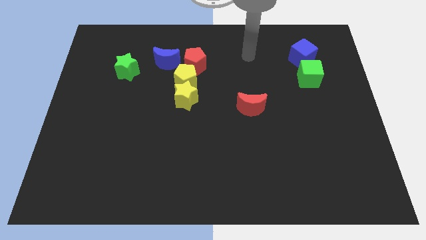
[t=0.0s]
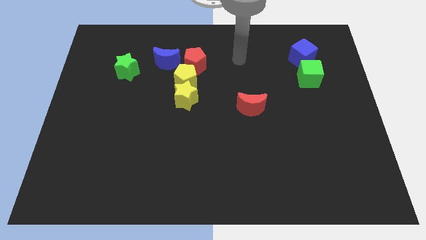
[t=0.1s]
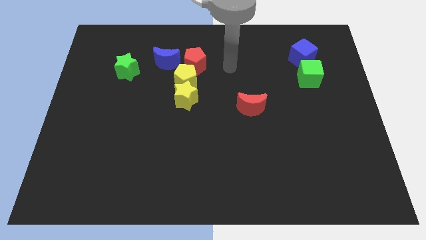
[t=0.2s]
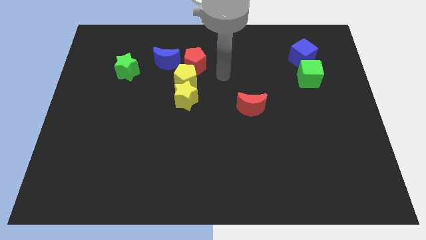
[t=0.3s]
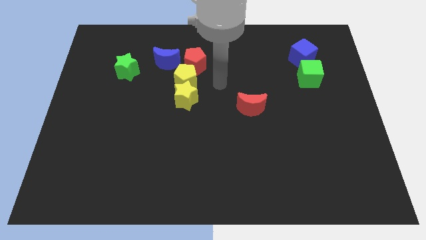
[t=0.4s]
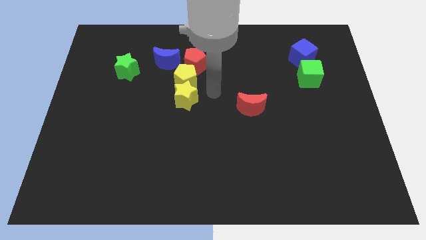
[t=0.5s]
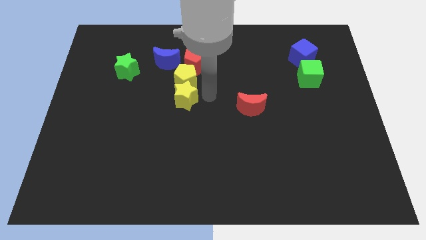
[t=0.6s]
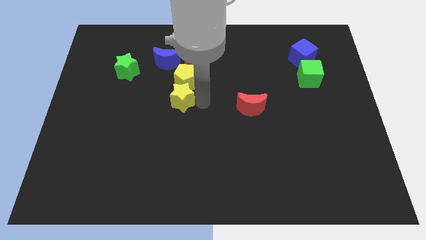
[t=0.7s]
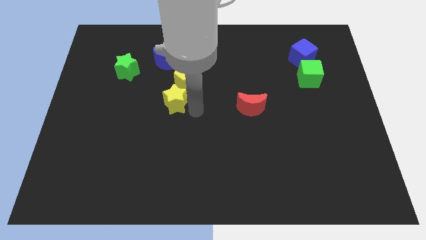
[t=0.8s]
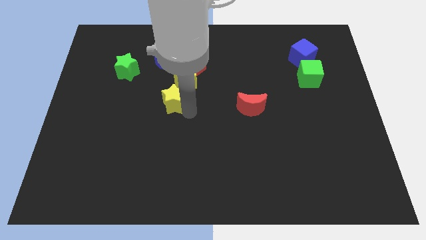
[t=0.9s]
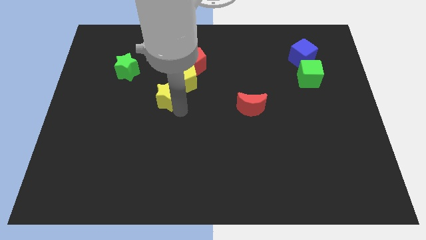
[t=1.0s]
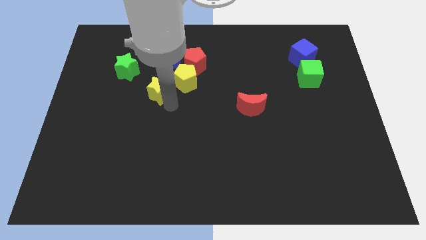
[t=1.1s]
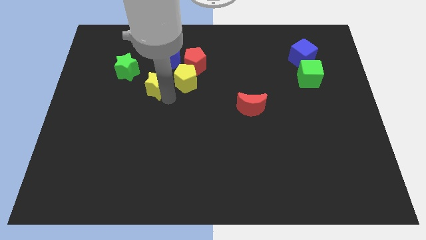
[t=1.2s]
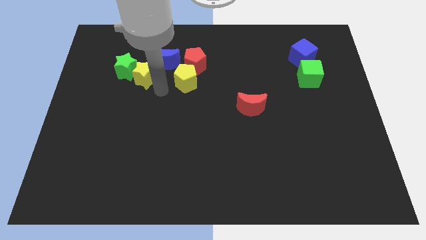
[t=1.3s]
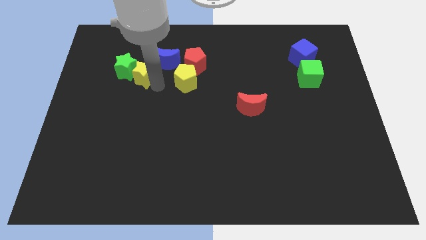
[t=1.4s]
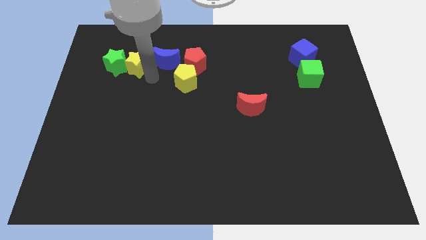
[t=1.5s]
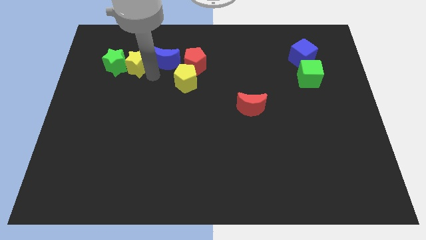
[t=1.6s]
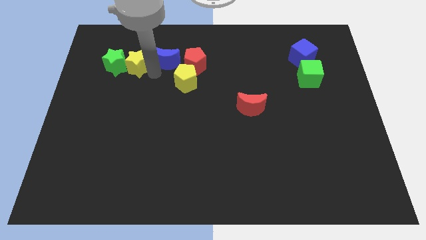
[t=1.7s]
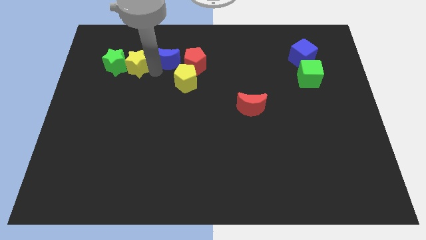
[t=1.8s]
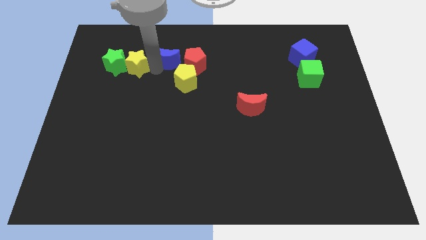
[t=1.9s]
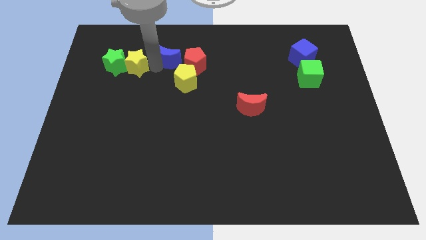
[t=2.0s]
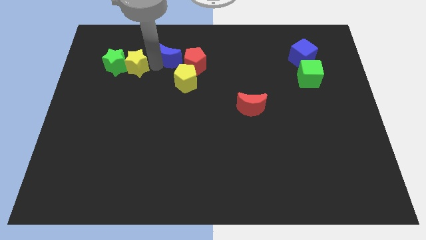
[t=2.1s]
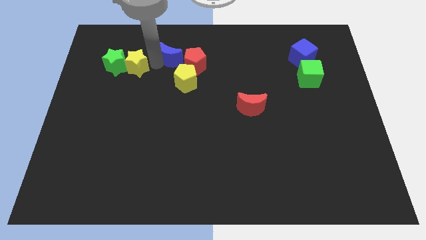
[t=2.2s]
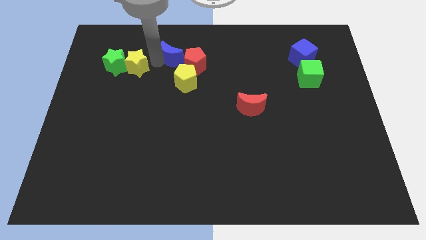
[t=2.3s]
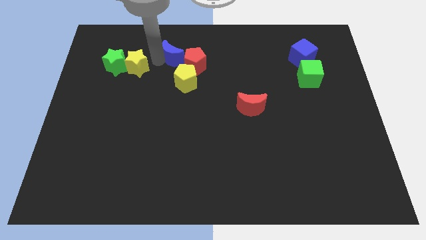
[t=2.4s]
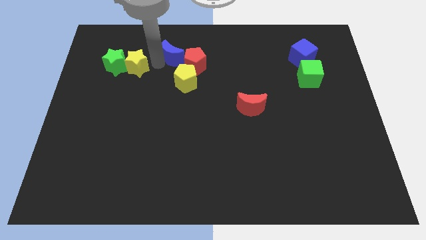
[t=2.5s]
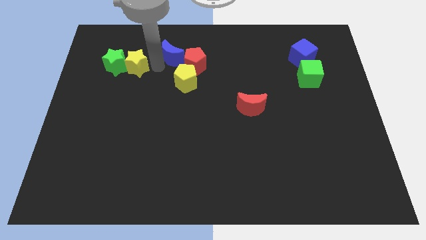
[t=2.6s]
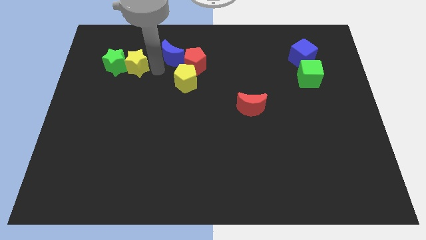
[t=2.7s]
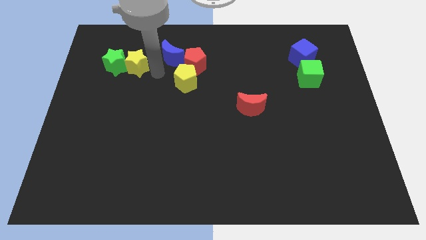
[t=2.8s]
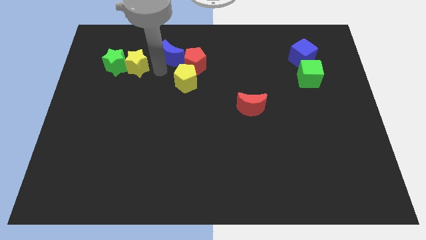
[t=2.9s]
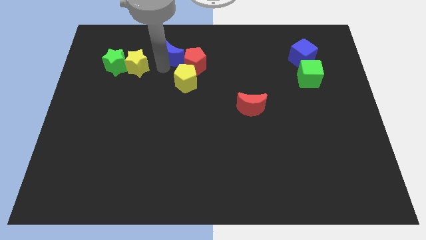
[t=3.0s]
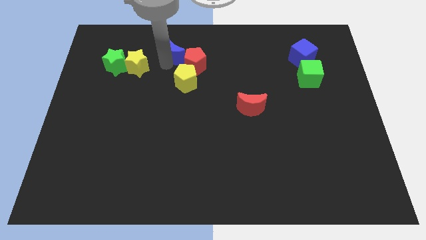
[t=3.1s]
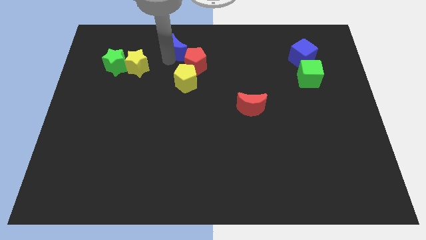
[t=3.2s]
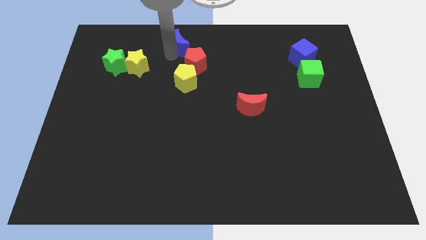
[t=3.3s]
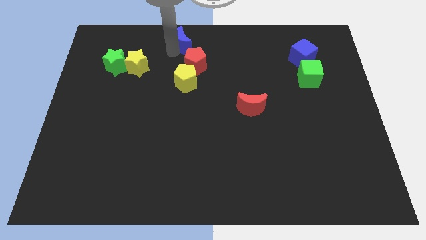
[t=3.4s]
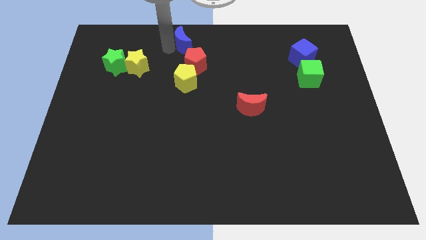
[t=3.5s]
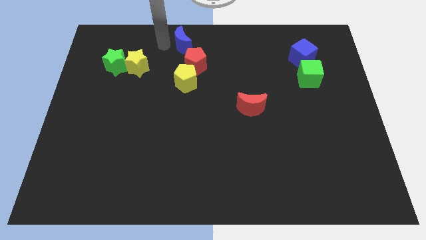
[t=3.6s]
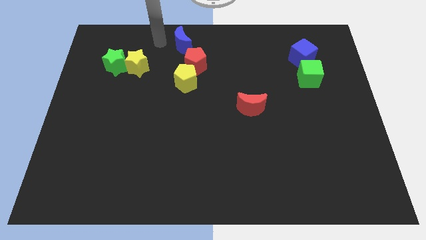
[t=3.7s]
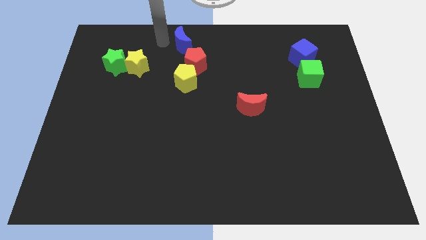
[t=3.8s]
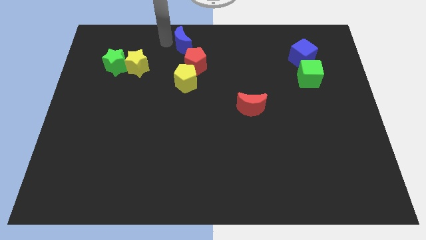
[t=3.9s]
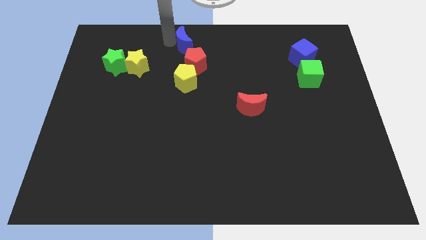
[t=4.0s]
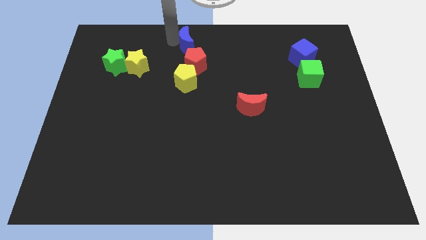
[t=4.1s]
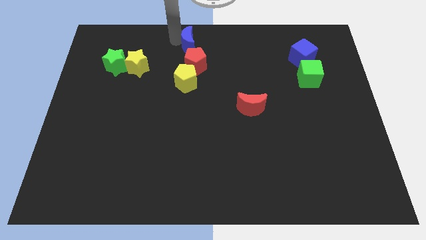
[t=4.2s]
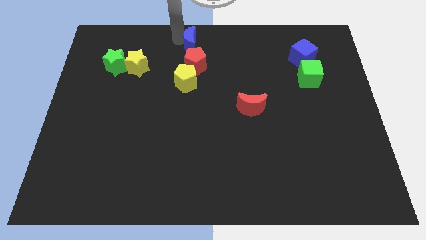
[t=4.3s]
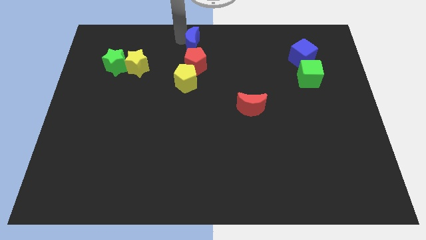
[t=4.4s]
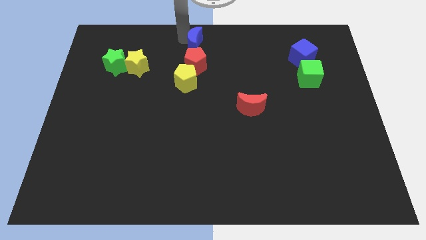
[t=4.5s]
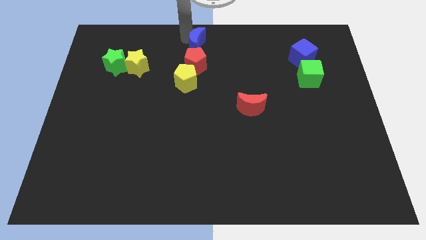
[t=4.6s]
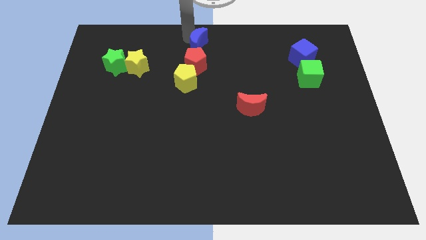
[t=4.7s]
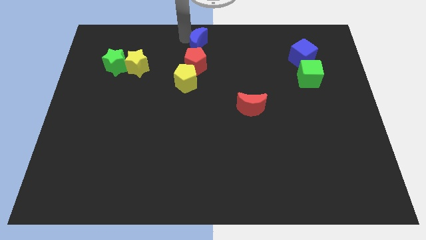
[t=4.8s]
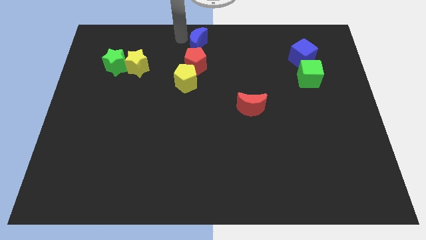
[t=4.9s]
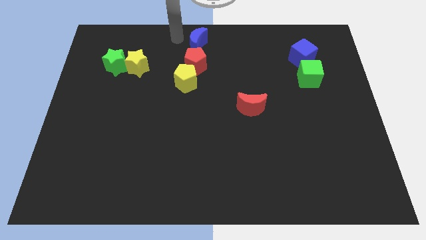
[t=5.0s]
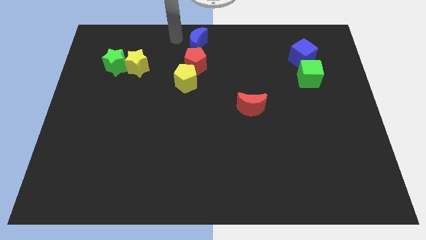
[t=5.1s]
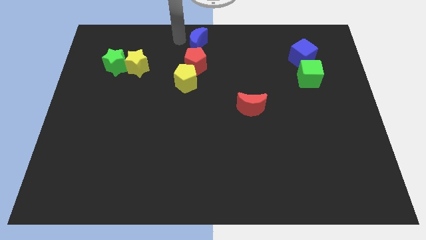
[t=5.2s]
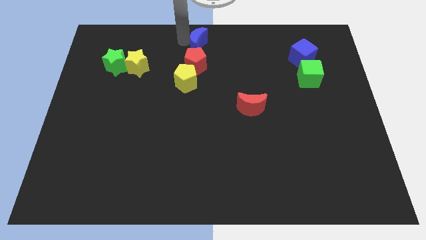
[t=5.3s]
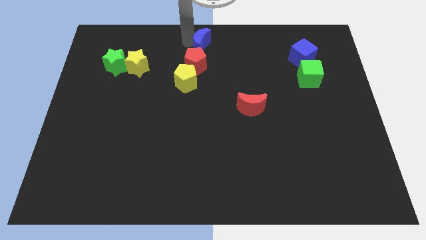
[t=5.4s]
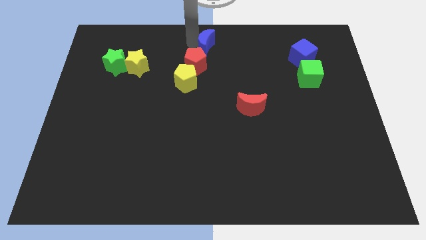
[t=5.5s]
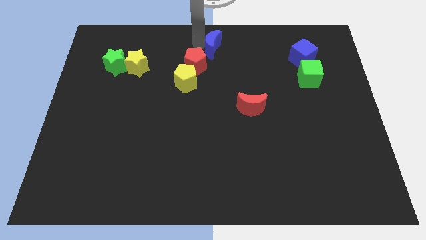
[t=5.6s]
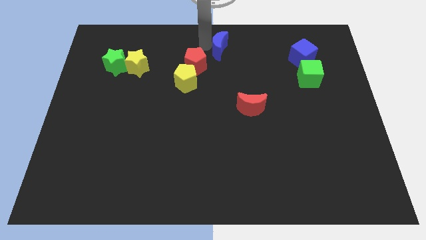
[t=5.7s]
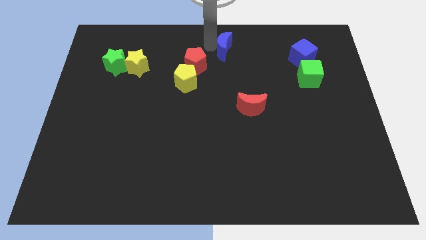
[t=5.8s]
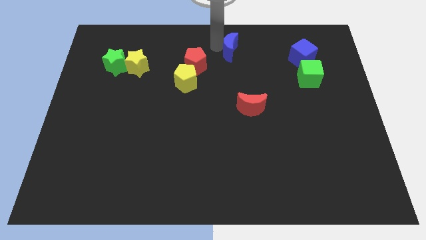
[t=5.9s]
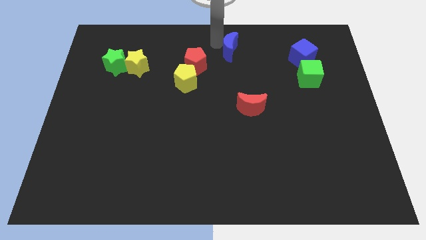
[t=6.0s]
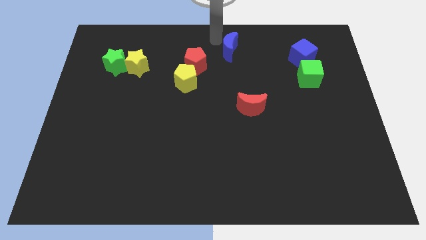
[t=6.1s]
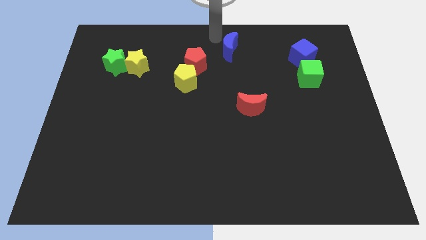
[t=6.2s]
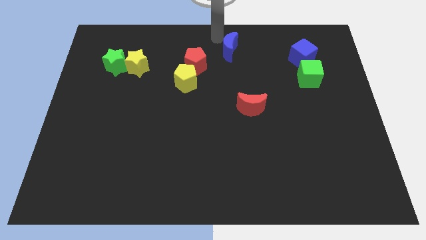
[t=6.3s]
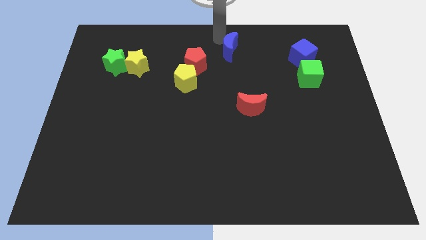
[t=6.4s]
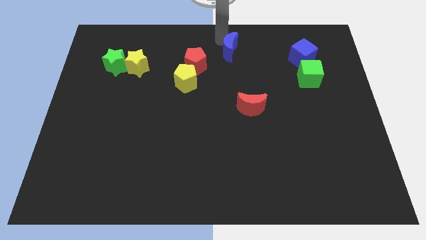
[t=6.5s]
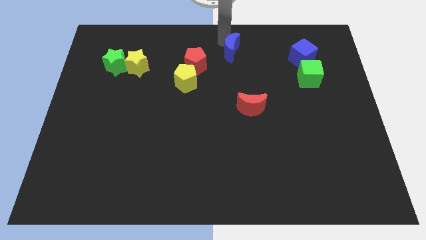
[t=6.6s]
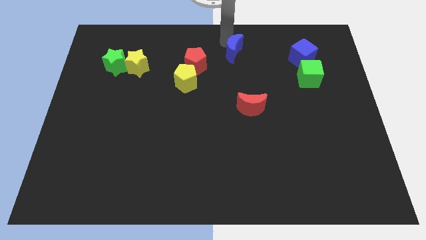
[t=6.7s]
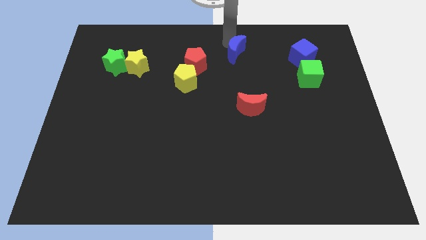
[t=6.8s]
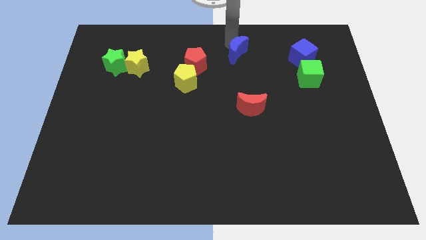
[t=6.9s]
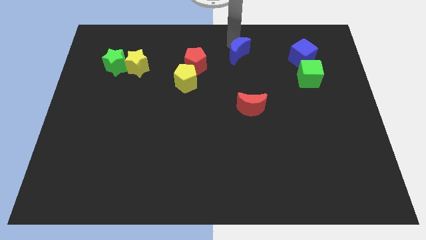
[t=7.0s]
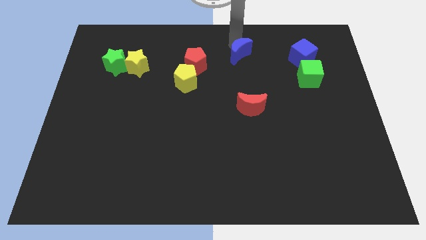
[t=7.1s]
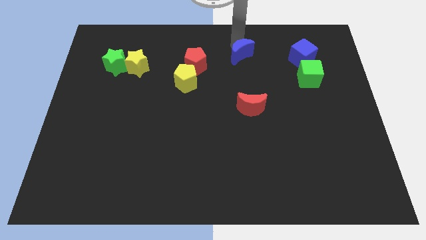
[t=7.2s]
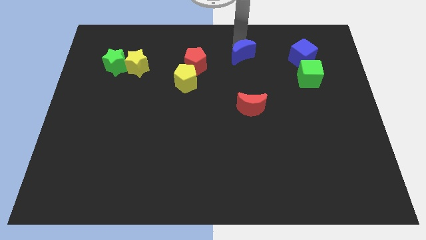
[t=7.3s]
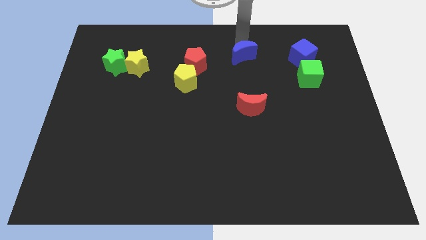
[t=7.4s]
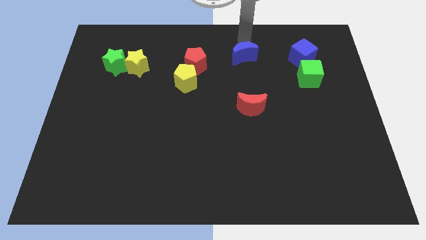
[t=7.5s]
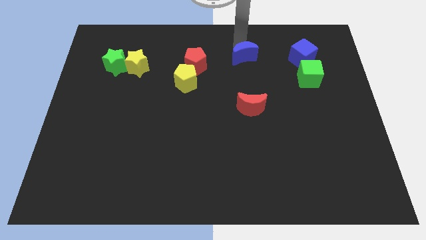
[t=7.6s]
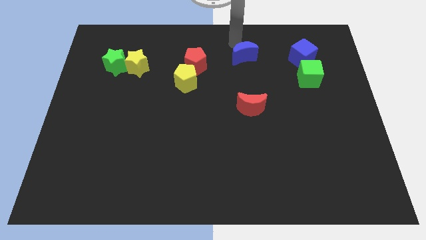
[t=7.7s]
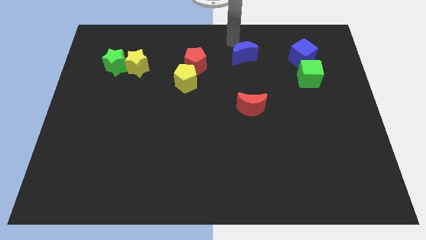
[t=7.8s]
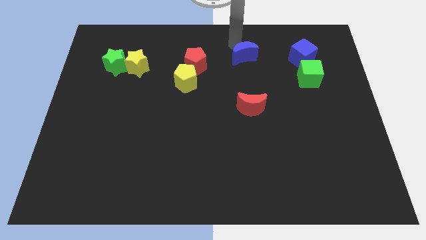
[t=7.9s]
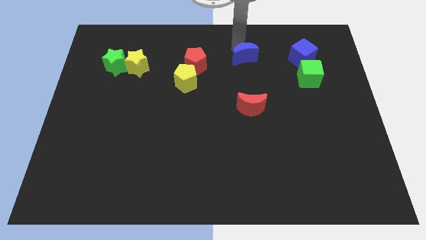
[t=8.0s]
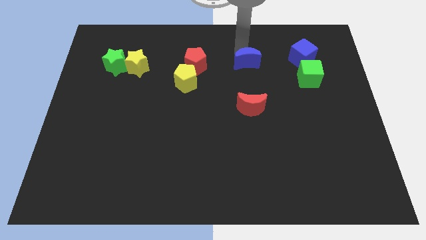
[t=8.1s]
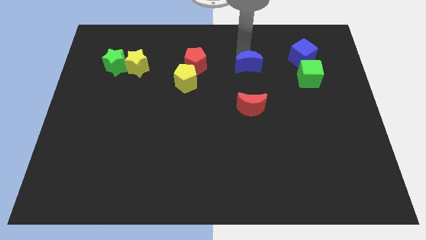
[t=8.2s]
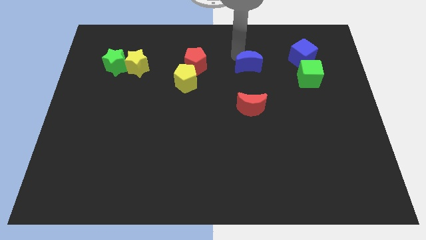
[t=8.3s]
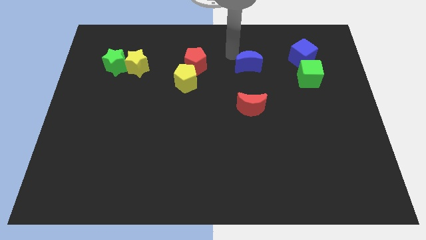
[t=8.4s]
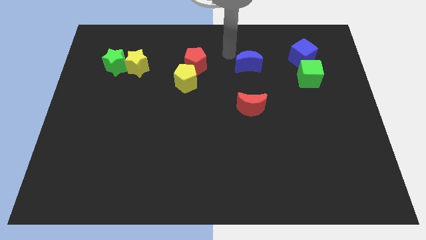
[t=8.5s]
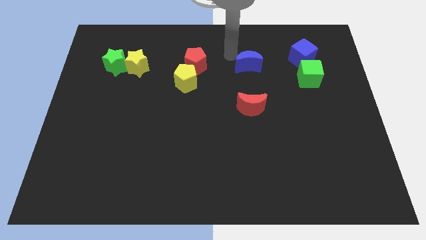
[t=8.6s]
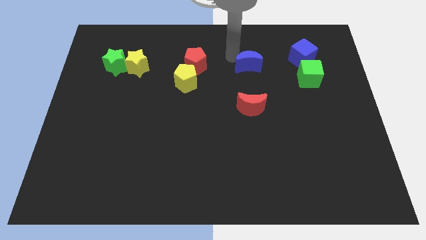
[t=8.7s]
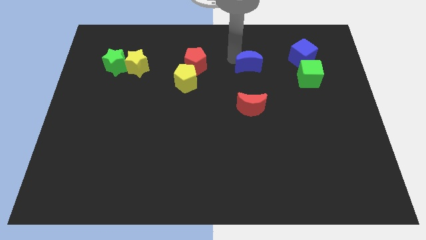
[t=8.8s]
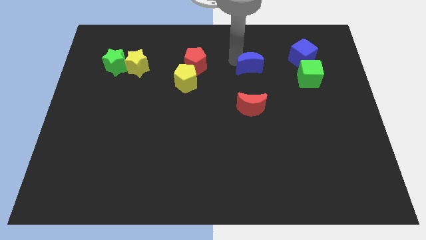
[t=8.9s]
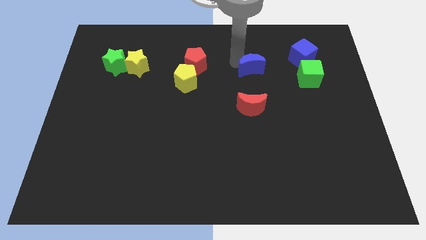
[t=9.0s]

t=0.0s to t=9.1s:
slide the blue moon just left of the green cube
